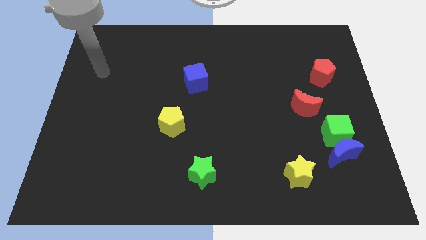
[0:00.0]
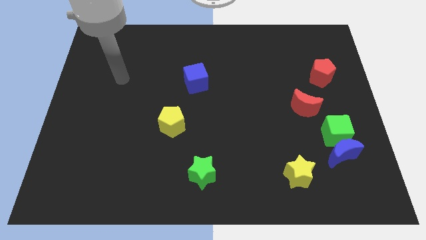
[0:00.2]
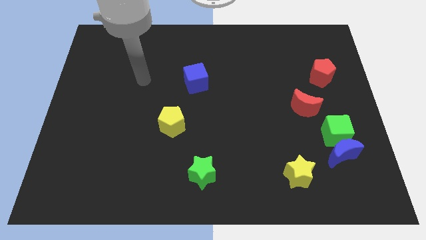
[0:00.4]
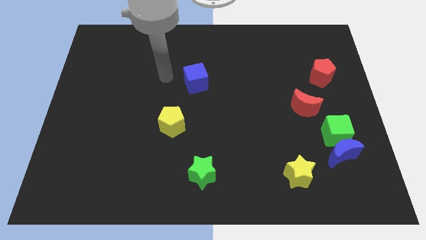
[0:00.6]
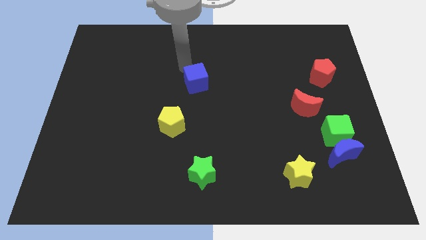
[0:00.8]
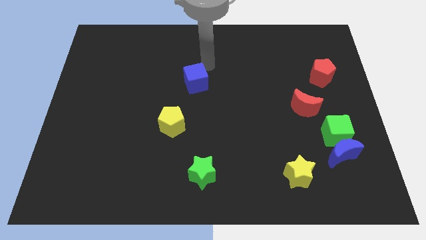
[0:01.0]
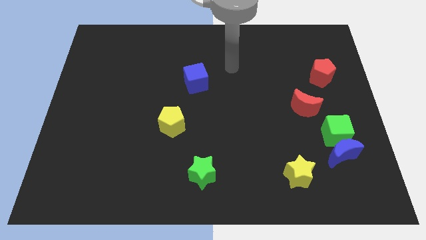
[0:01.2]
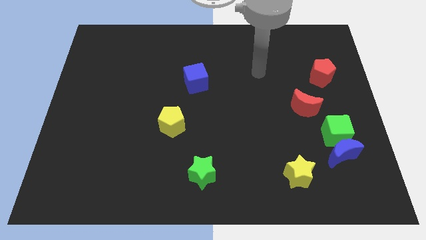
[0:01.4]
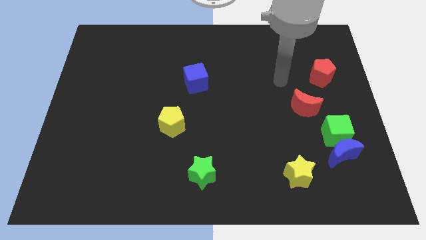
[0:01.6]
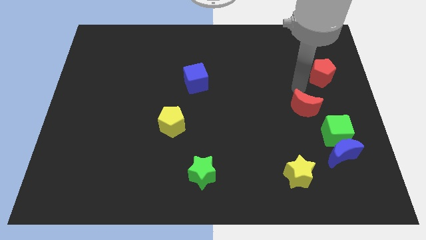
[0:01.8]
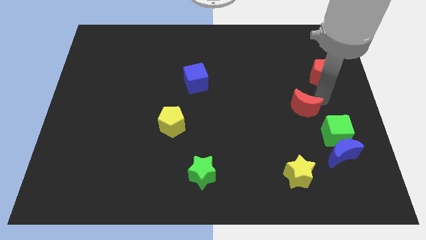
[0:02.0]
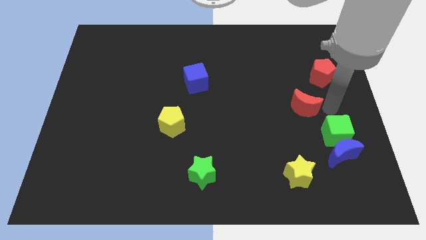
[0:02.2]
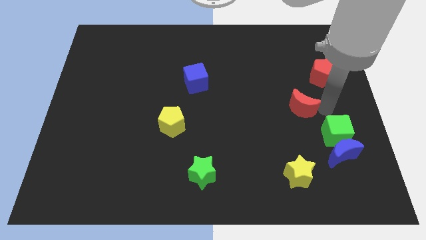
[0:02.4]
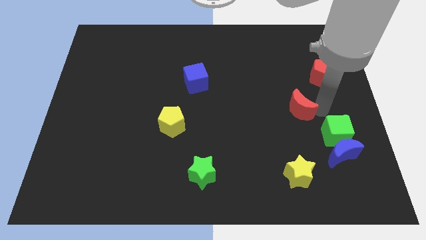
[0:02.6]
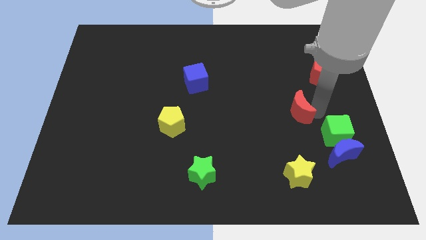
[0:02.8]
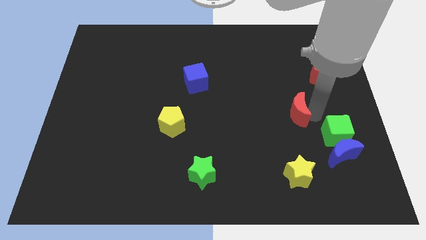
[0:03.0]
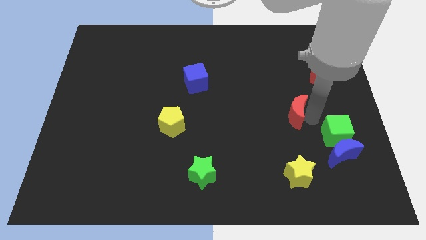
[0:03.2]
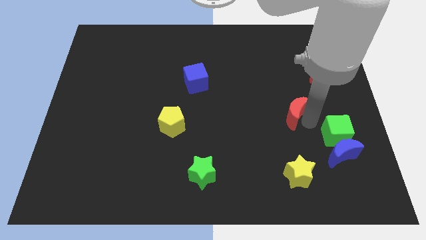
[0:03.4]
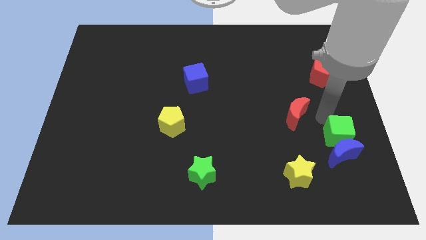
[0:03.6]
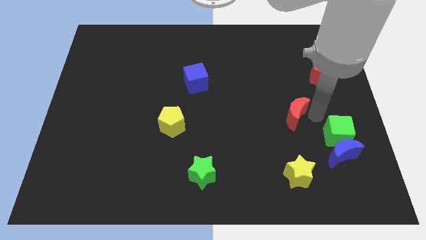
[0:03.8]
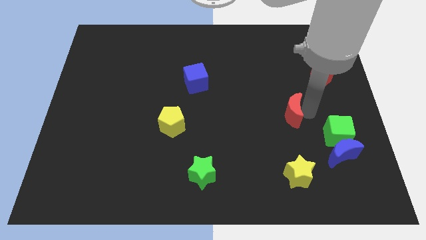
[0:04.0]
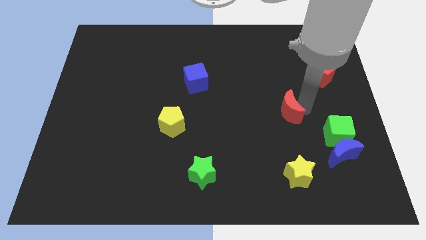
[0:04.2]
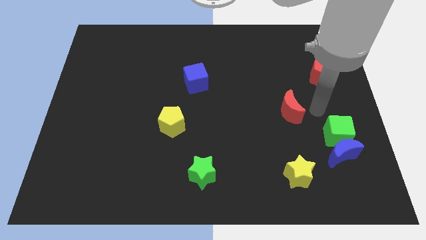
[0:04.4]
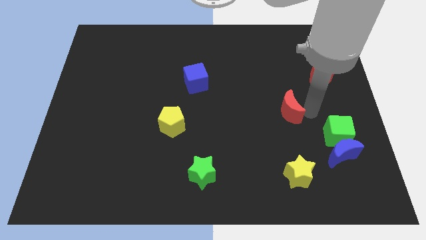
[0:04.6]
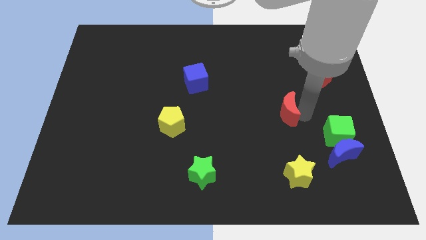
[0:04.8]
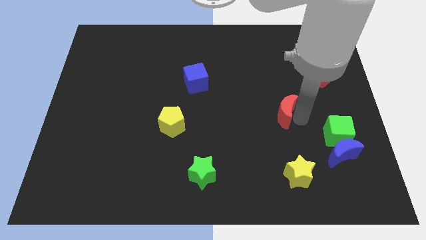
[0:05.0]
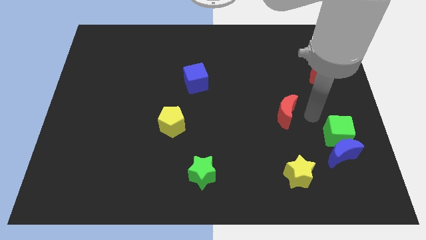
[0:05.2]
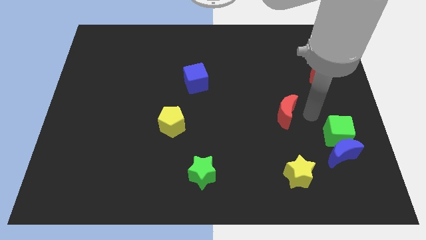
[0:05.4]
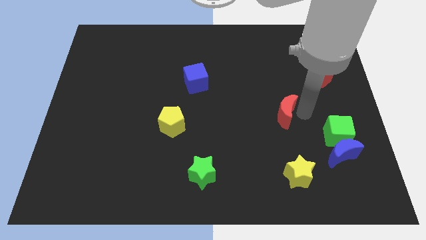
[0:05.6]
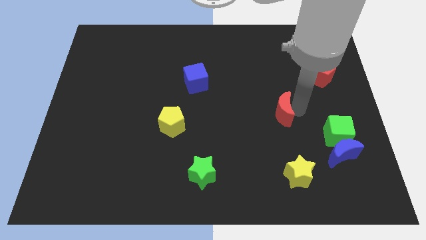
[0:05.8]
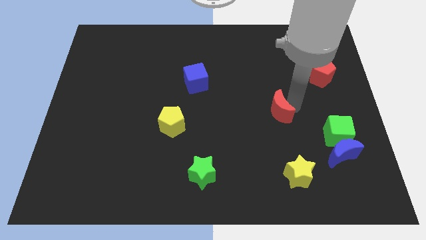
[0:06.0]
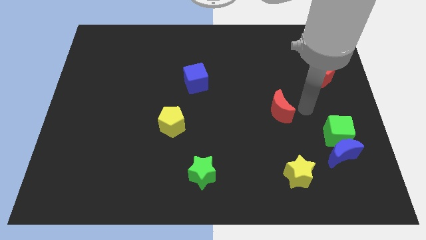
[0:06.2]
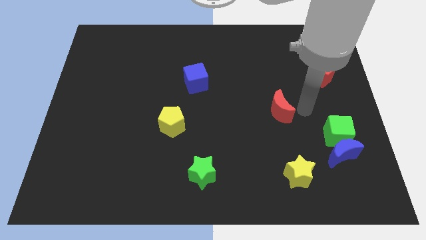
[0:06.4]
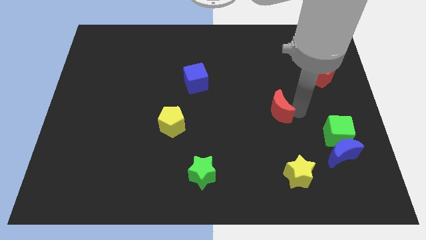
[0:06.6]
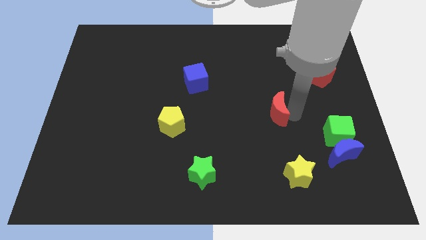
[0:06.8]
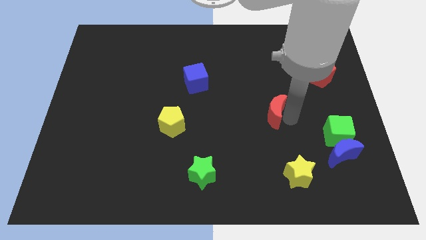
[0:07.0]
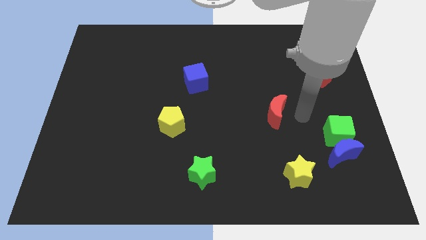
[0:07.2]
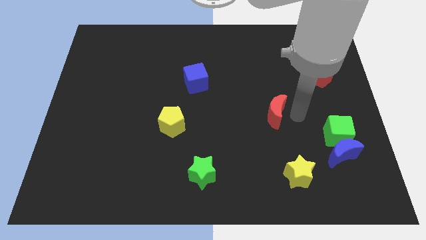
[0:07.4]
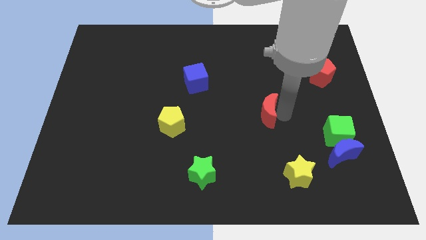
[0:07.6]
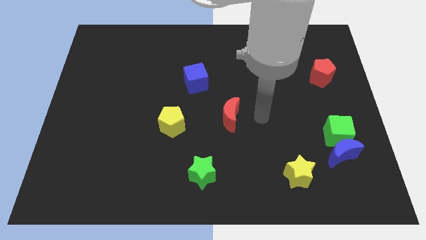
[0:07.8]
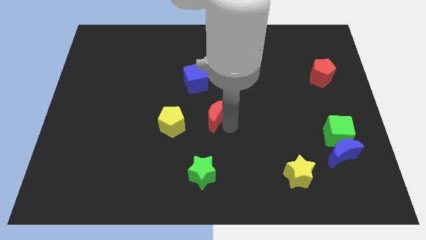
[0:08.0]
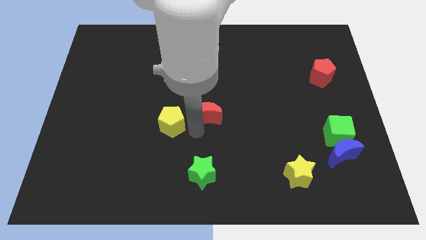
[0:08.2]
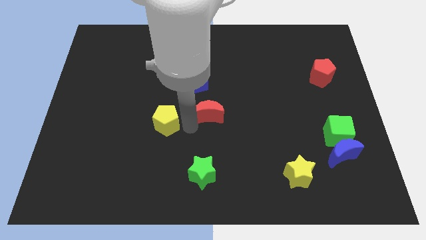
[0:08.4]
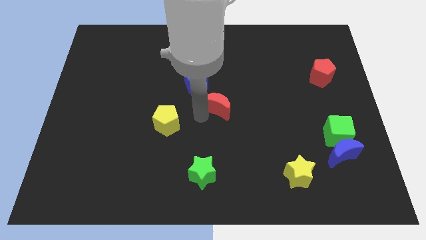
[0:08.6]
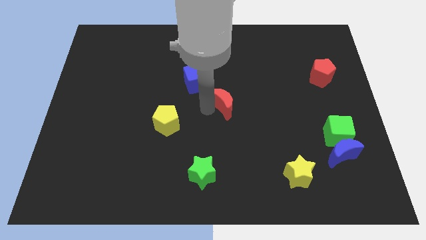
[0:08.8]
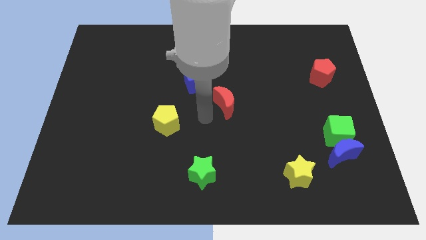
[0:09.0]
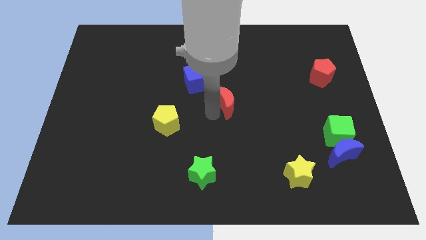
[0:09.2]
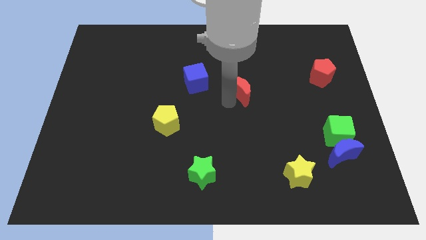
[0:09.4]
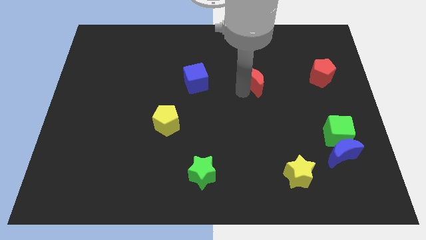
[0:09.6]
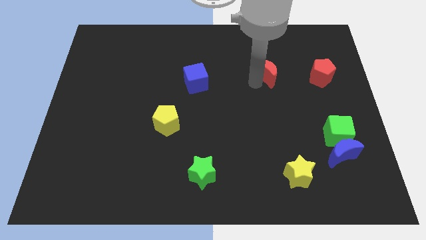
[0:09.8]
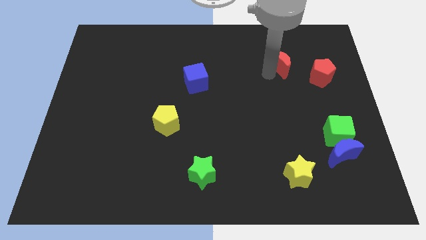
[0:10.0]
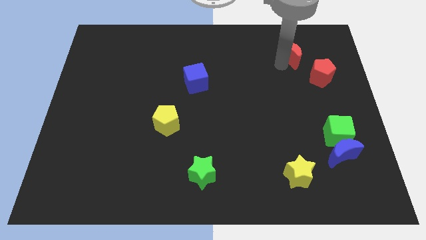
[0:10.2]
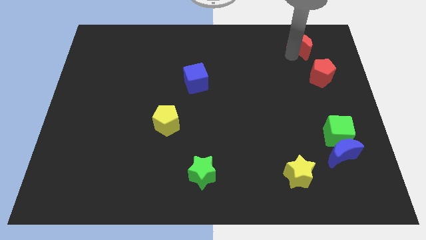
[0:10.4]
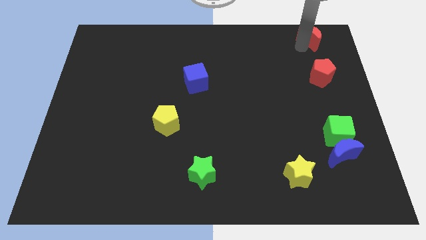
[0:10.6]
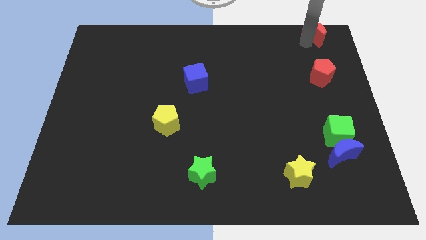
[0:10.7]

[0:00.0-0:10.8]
put the red moon to the top right corner

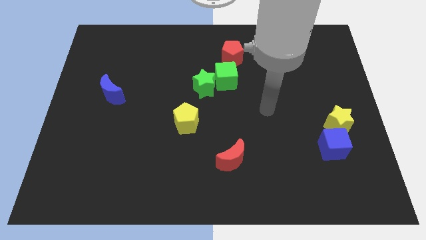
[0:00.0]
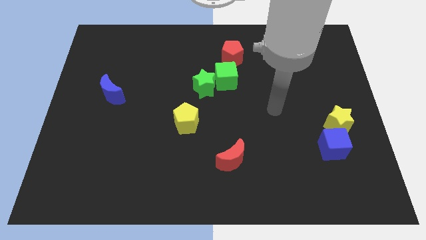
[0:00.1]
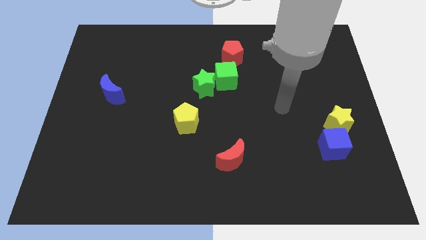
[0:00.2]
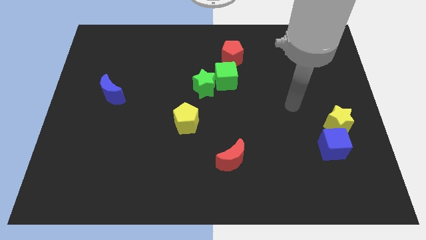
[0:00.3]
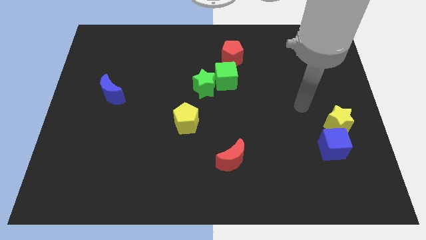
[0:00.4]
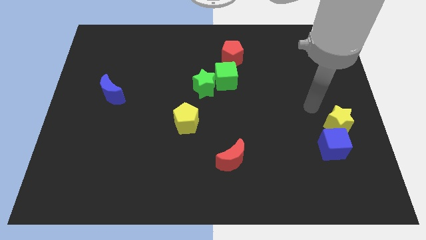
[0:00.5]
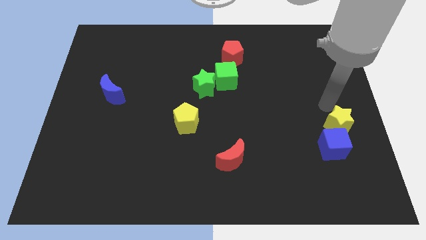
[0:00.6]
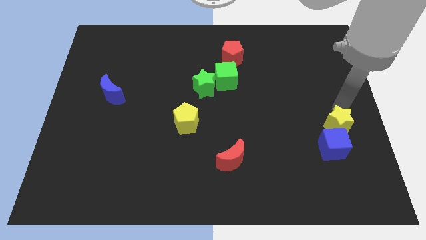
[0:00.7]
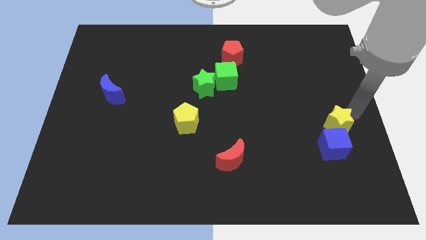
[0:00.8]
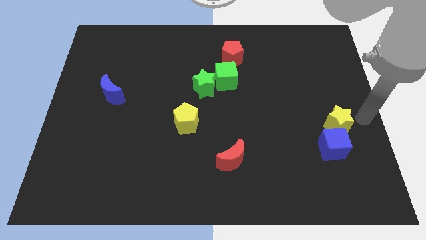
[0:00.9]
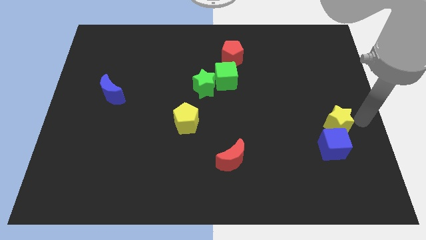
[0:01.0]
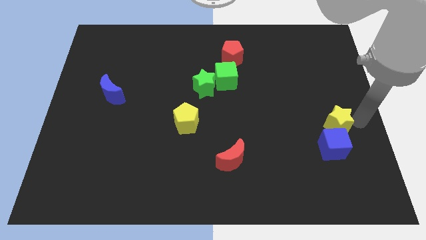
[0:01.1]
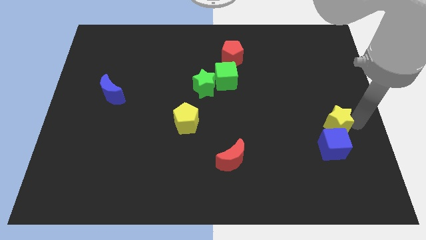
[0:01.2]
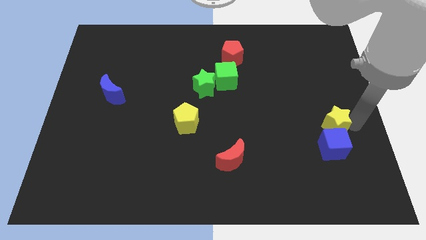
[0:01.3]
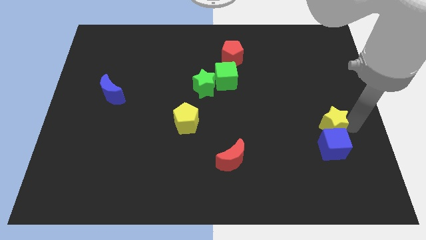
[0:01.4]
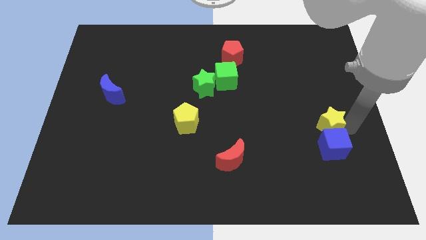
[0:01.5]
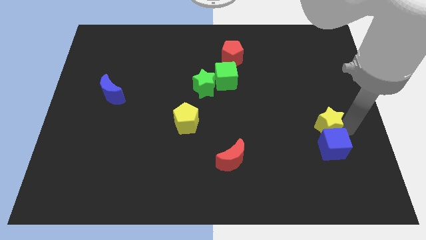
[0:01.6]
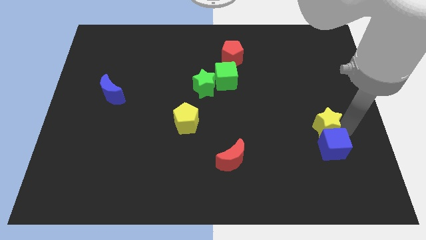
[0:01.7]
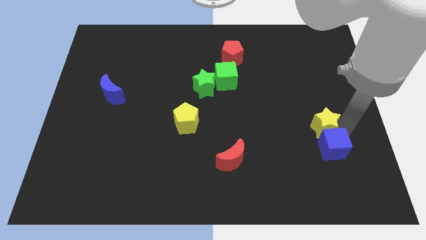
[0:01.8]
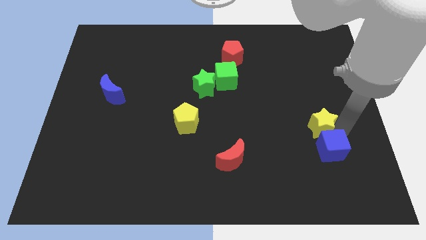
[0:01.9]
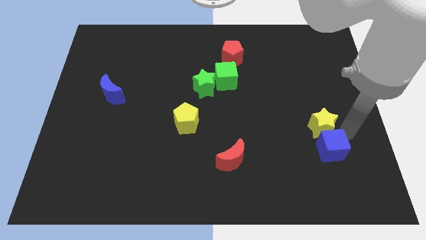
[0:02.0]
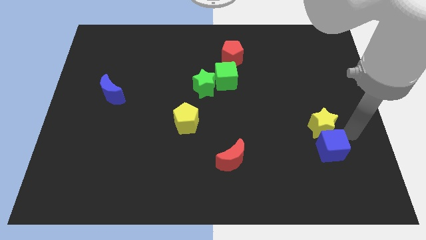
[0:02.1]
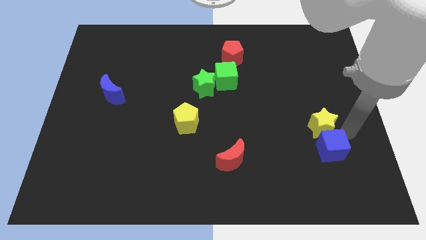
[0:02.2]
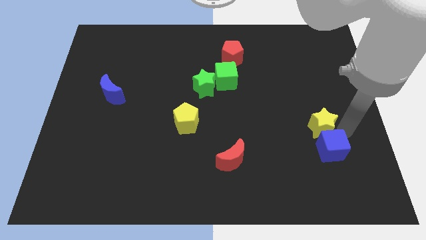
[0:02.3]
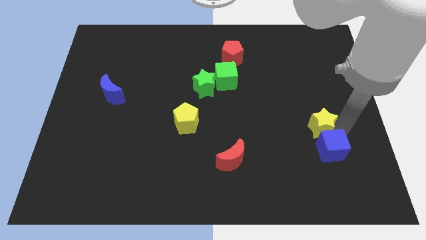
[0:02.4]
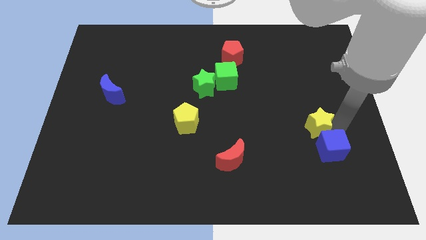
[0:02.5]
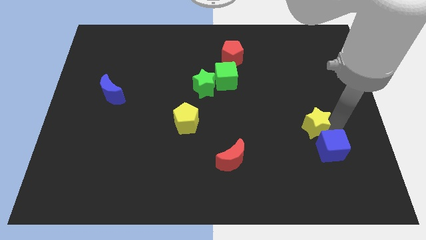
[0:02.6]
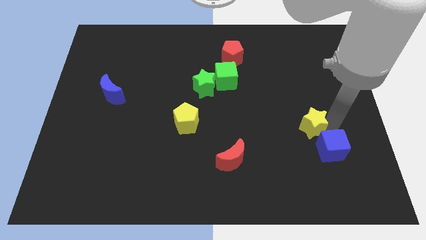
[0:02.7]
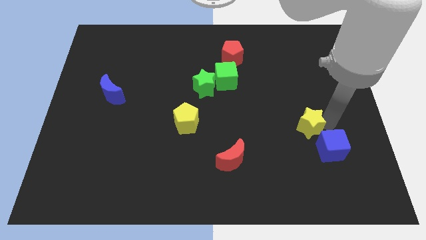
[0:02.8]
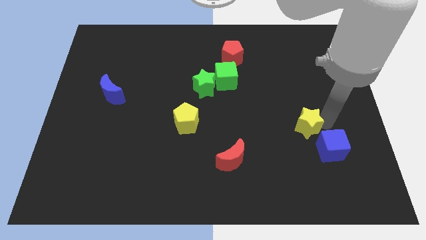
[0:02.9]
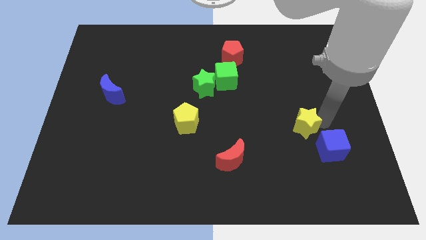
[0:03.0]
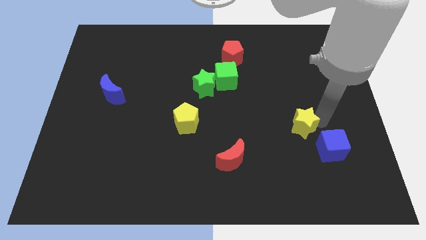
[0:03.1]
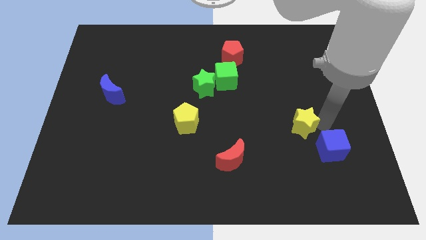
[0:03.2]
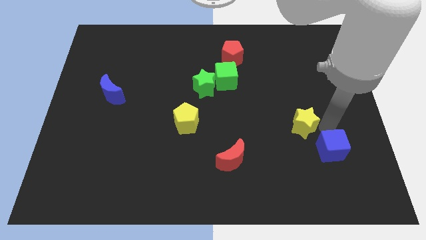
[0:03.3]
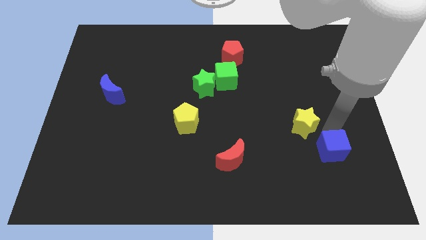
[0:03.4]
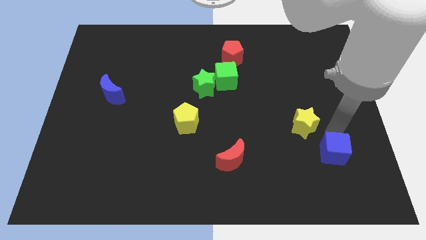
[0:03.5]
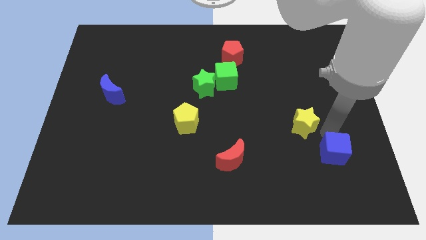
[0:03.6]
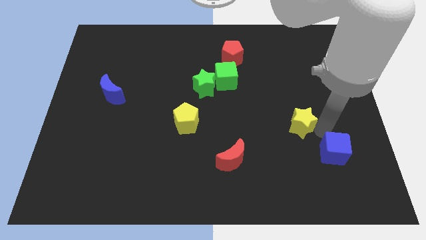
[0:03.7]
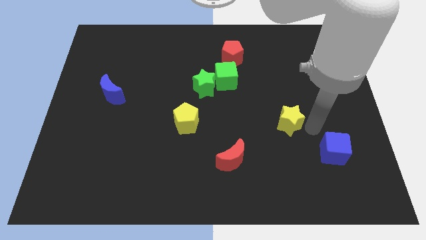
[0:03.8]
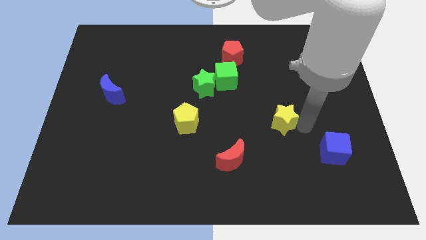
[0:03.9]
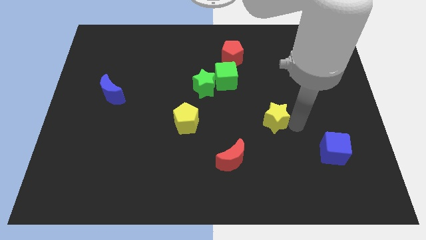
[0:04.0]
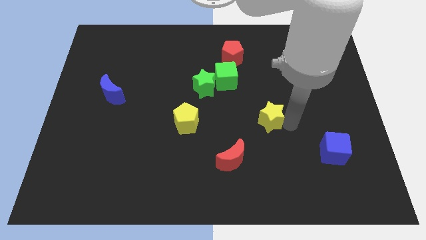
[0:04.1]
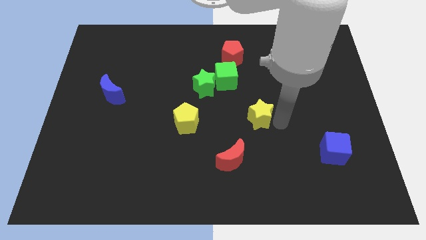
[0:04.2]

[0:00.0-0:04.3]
move the yellow star to the center
